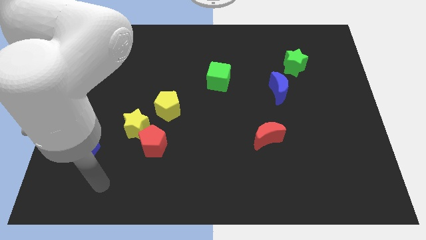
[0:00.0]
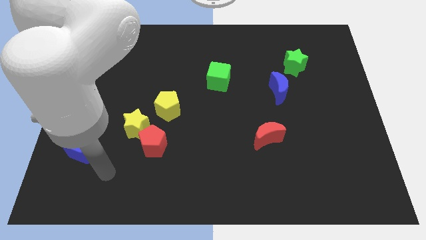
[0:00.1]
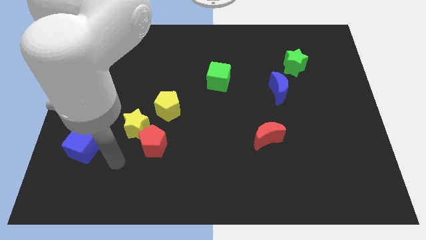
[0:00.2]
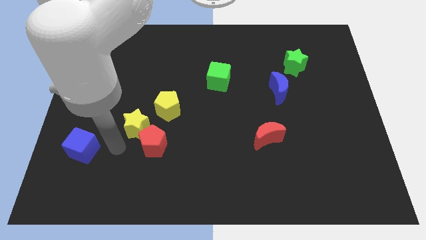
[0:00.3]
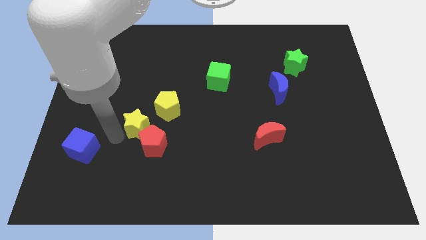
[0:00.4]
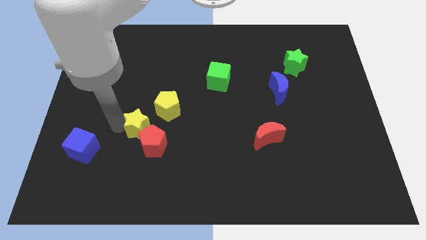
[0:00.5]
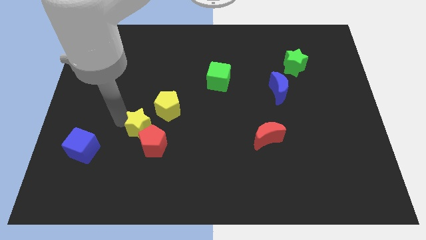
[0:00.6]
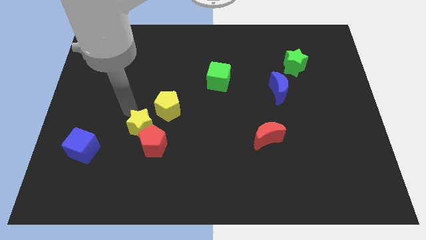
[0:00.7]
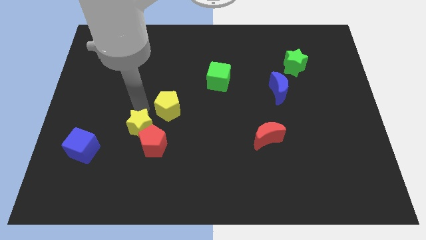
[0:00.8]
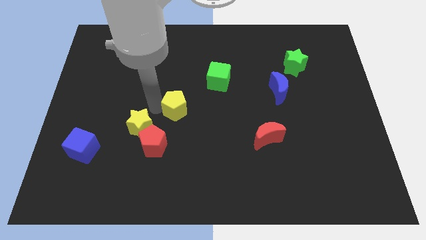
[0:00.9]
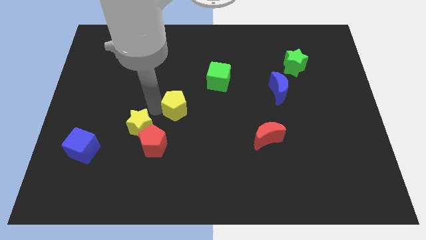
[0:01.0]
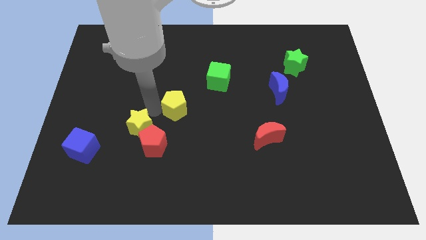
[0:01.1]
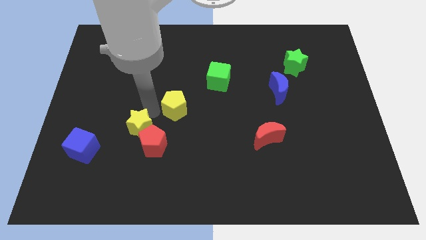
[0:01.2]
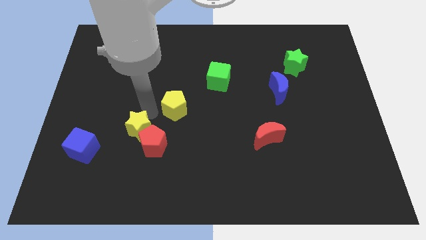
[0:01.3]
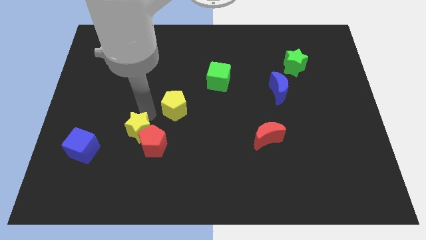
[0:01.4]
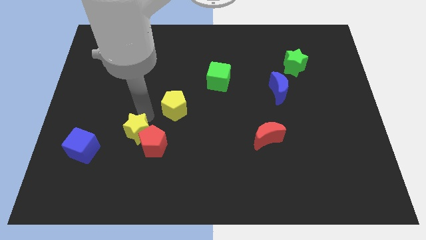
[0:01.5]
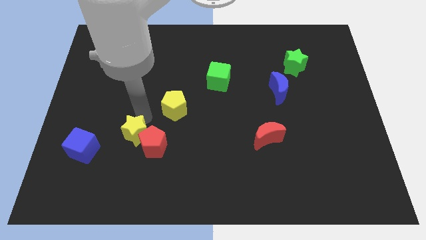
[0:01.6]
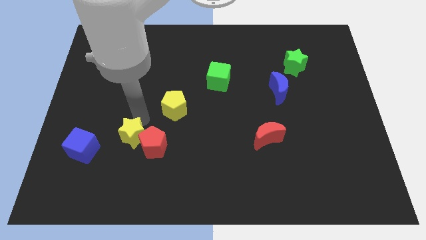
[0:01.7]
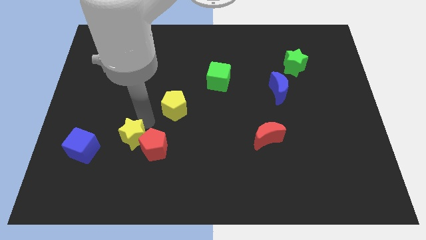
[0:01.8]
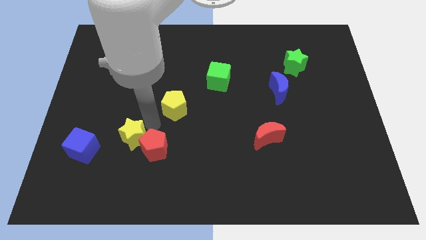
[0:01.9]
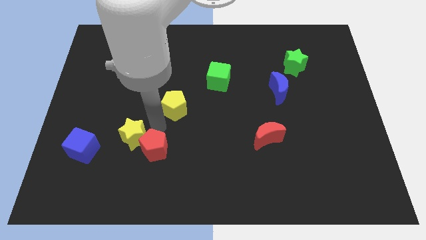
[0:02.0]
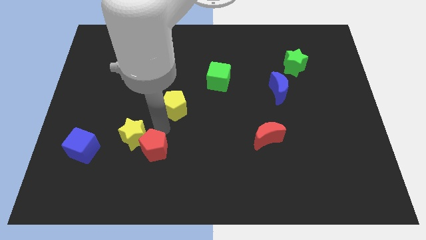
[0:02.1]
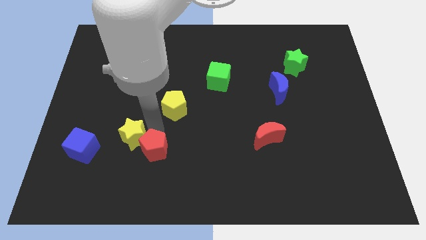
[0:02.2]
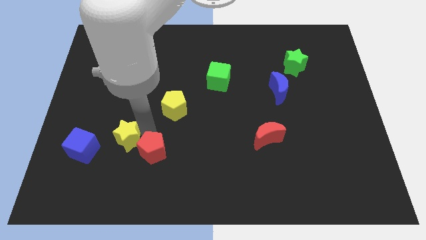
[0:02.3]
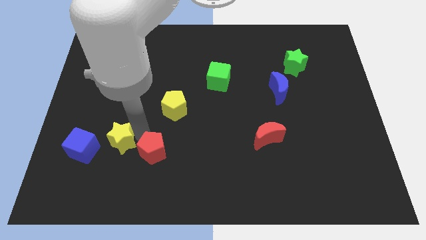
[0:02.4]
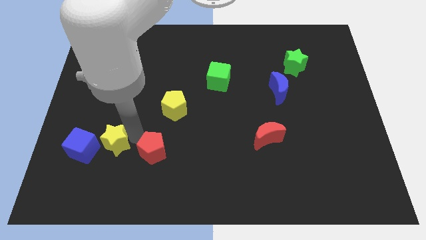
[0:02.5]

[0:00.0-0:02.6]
separate the yellow star from the red pentagon and yellow pentagon

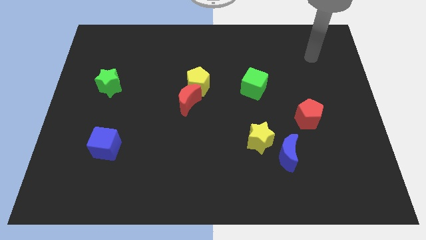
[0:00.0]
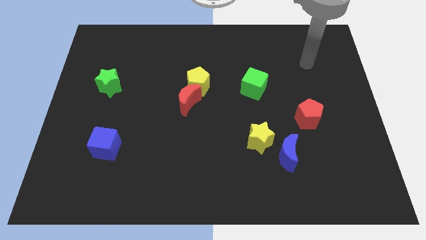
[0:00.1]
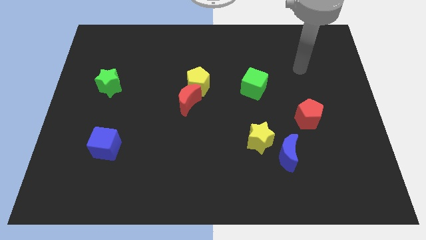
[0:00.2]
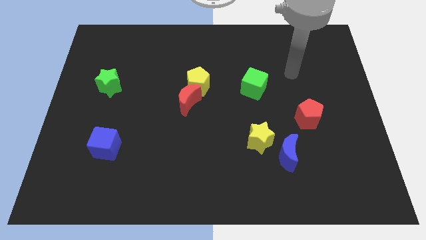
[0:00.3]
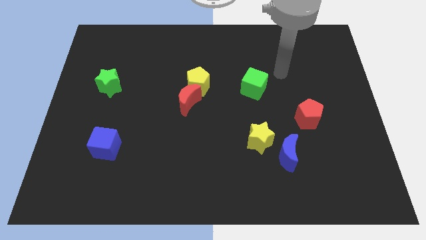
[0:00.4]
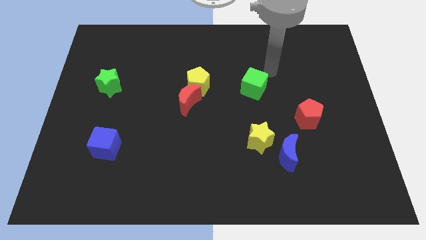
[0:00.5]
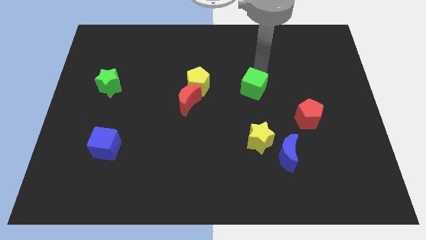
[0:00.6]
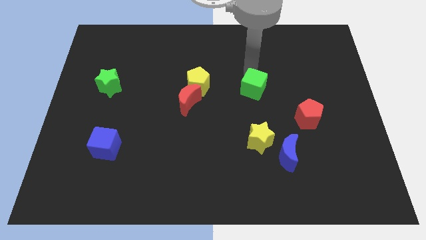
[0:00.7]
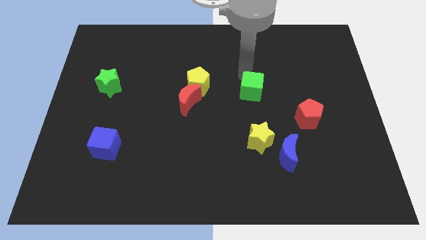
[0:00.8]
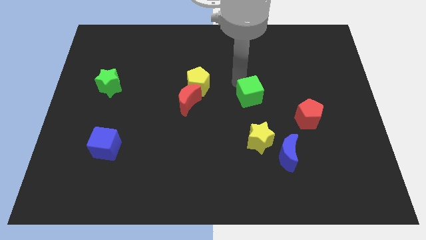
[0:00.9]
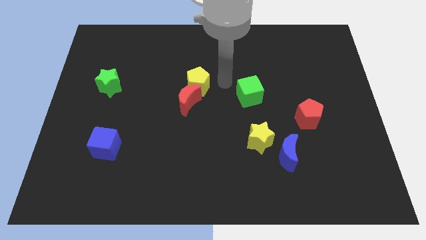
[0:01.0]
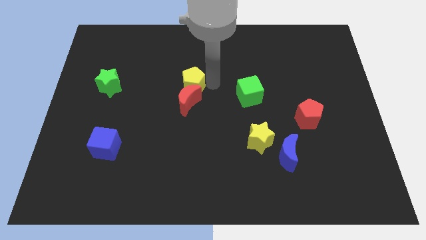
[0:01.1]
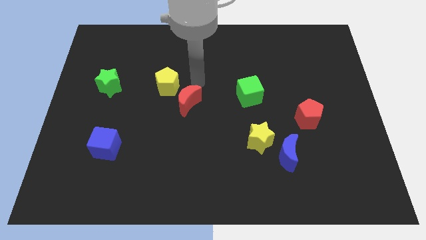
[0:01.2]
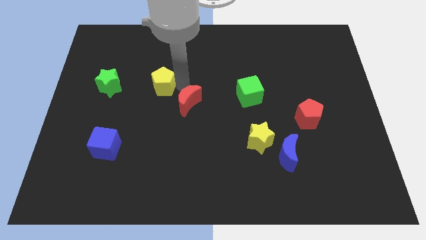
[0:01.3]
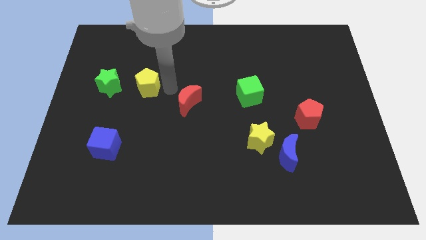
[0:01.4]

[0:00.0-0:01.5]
pull the red moon apart from the yellow pentagon

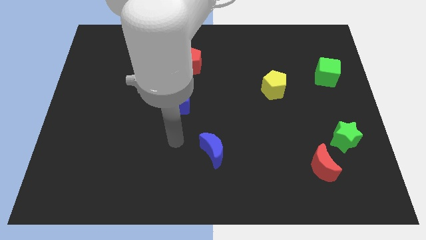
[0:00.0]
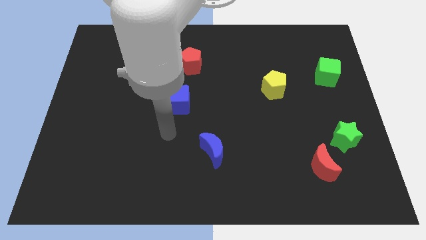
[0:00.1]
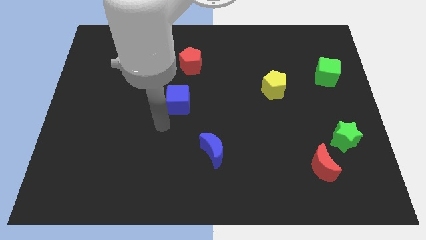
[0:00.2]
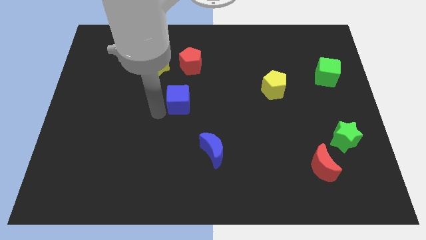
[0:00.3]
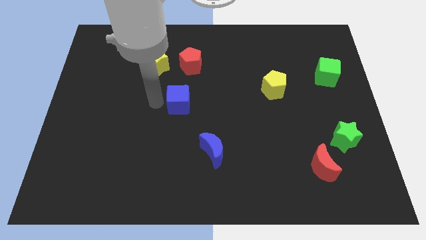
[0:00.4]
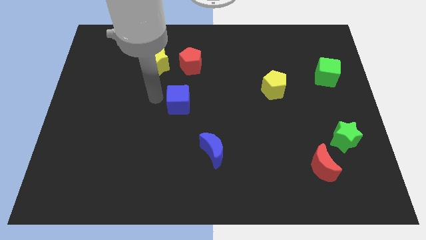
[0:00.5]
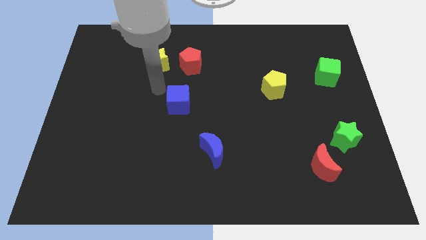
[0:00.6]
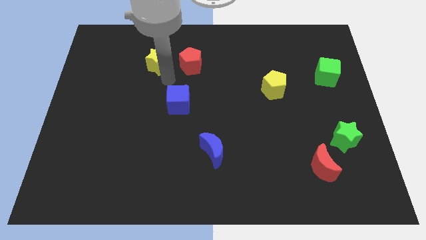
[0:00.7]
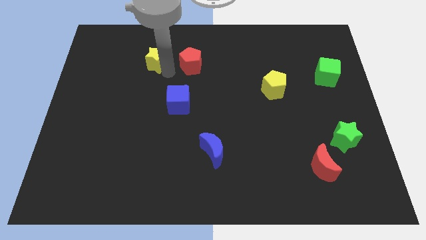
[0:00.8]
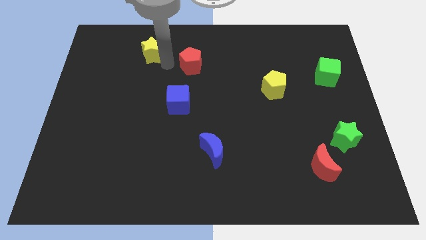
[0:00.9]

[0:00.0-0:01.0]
pull the red pentagon apart from the yellow star

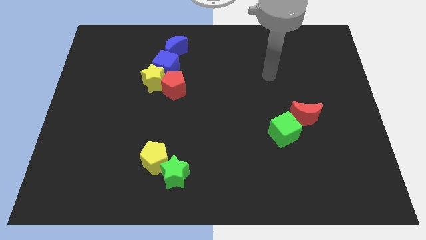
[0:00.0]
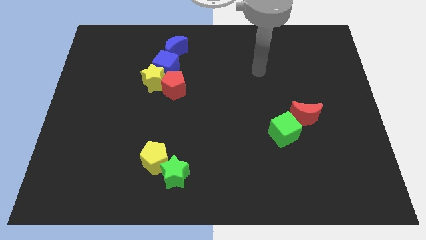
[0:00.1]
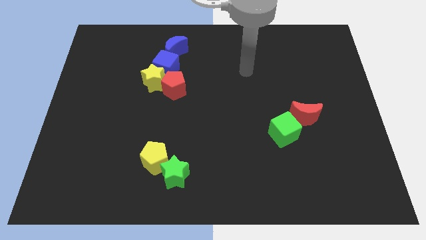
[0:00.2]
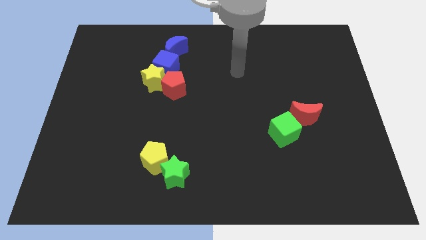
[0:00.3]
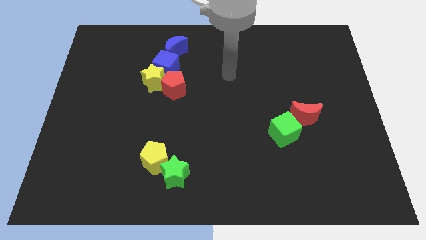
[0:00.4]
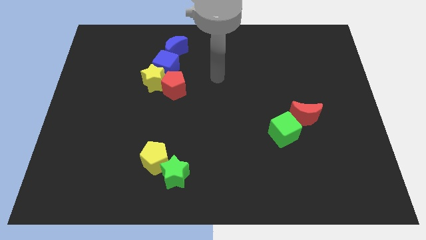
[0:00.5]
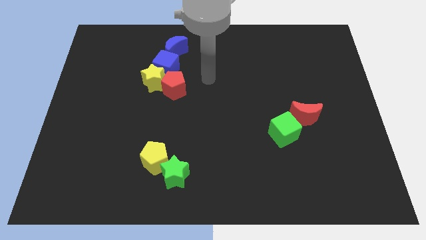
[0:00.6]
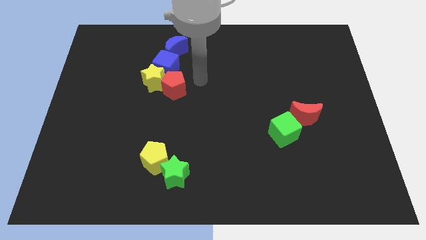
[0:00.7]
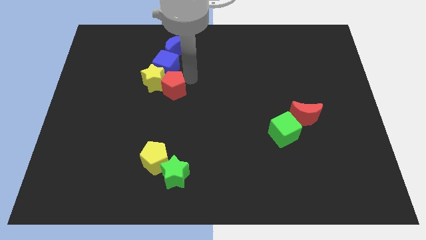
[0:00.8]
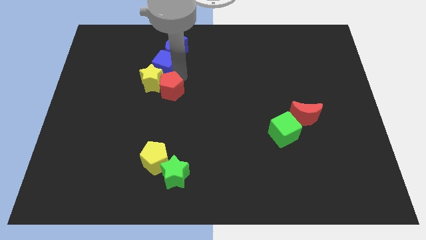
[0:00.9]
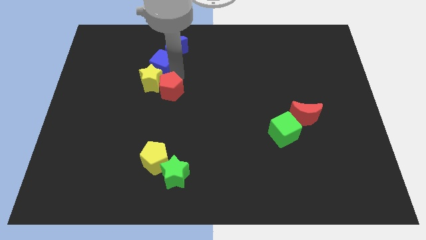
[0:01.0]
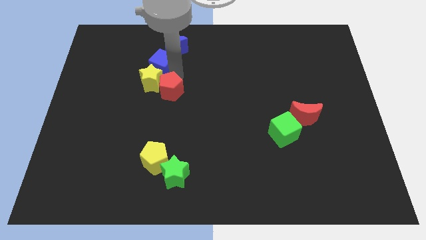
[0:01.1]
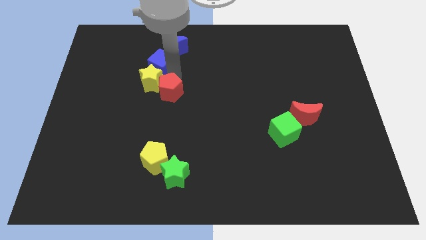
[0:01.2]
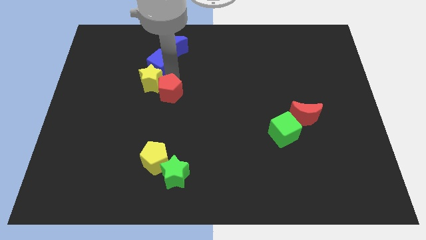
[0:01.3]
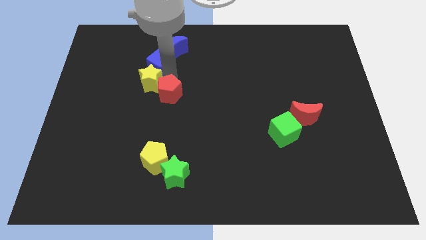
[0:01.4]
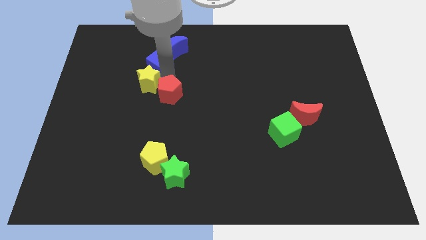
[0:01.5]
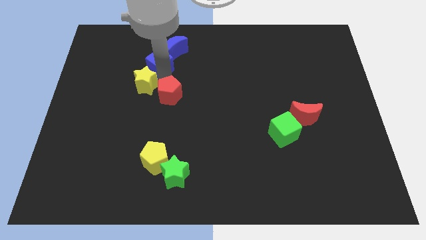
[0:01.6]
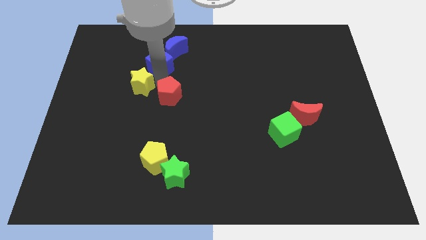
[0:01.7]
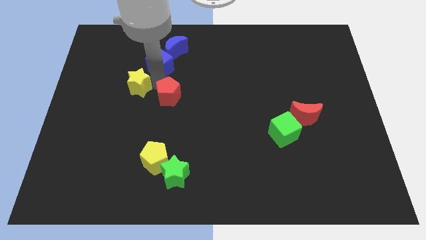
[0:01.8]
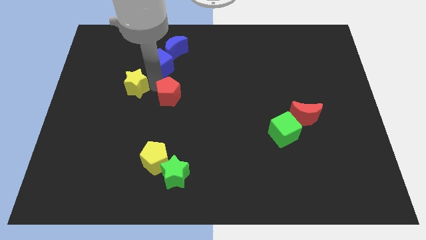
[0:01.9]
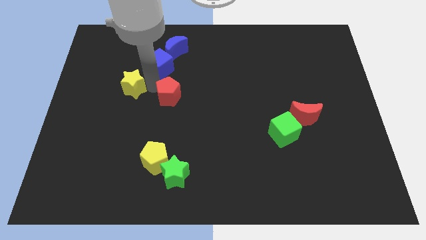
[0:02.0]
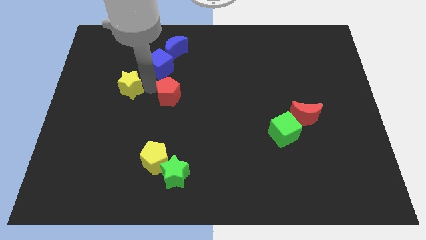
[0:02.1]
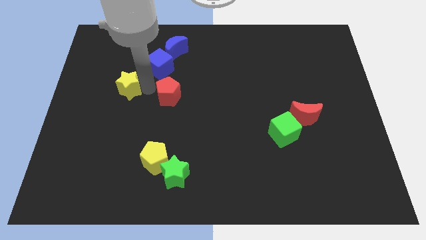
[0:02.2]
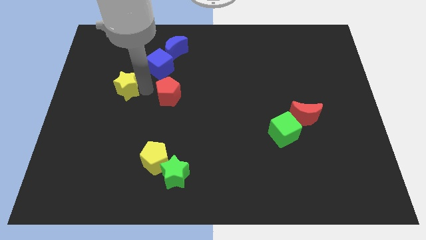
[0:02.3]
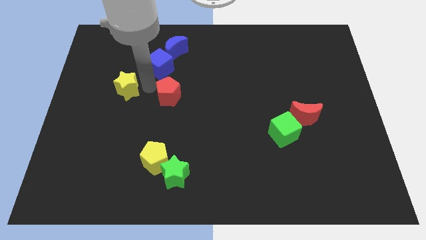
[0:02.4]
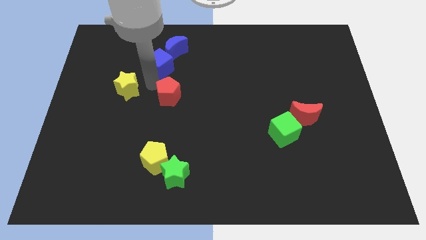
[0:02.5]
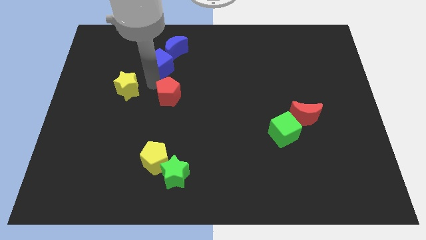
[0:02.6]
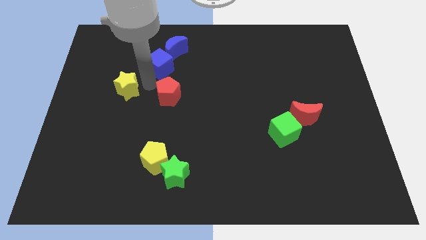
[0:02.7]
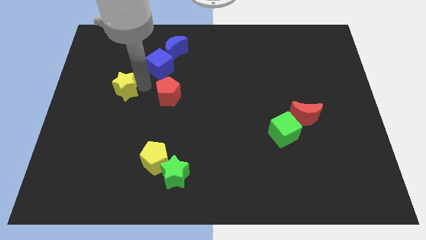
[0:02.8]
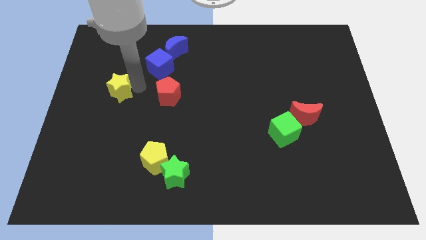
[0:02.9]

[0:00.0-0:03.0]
separate the yellow star from the blue cube and red pentagon

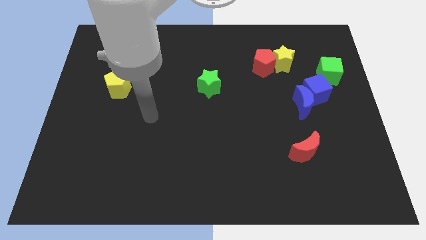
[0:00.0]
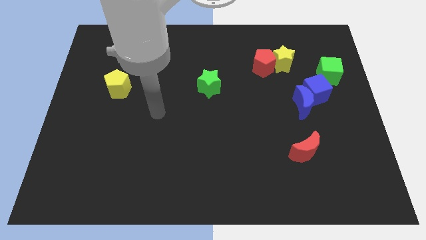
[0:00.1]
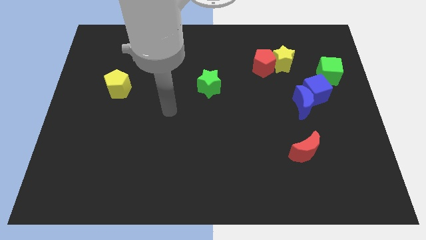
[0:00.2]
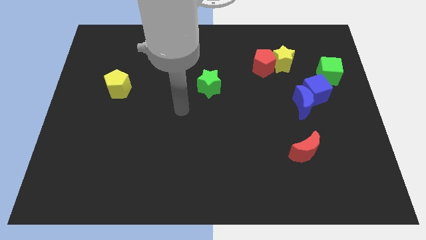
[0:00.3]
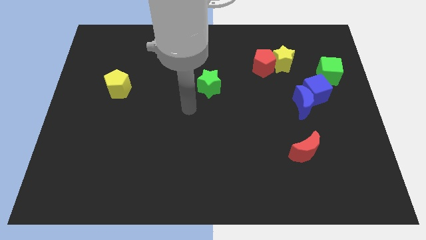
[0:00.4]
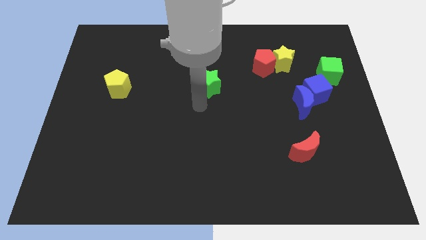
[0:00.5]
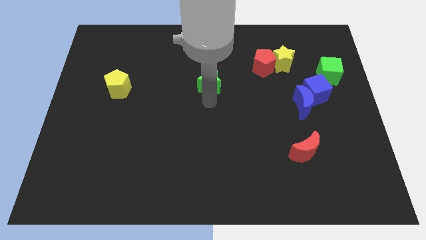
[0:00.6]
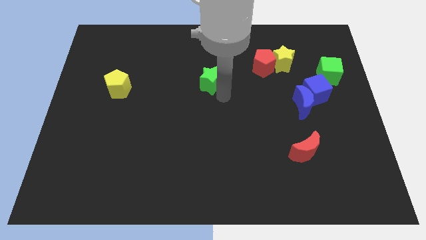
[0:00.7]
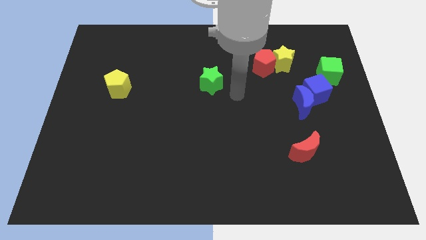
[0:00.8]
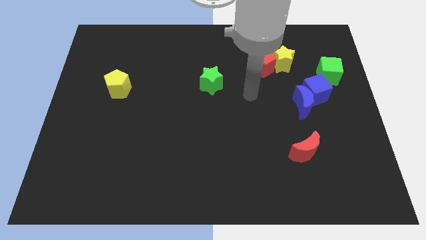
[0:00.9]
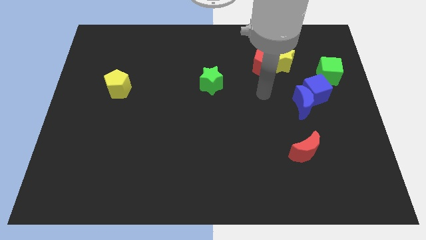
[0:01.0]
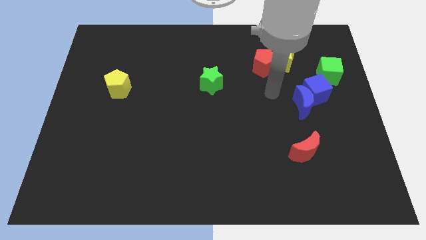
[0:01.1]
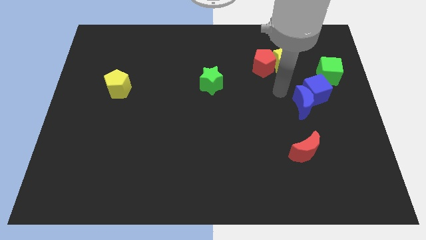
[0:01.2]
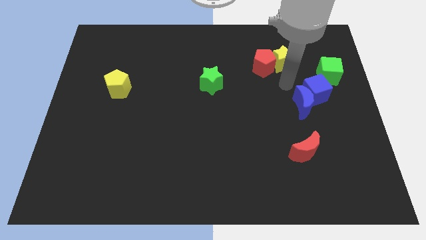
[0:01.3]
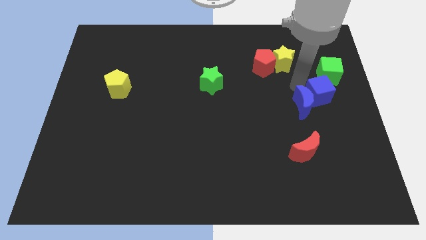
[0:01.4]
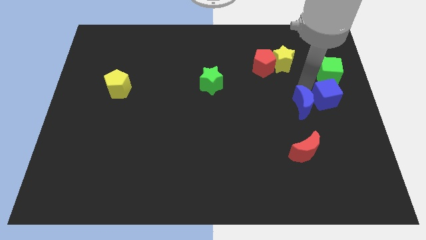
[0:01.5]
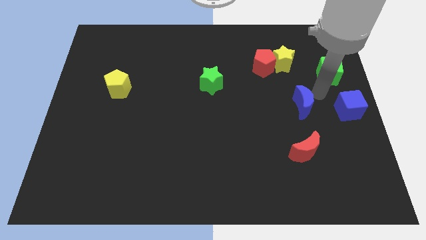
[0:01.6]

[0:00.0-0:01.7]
pull the blue moon apart from the blue cube
